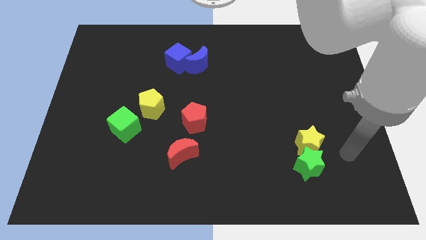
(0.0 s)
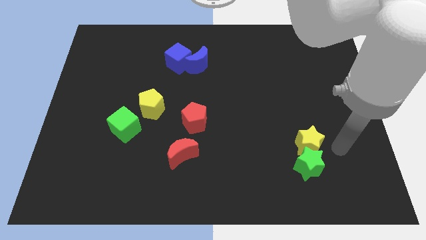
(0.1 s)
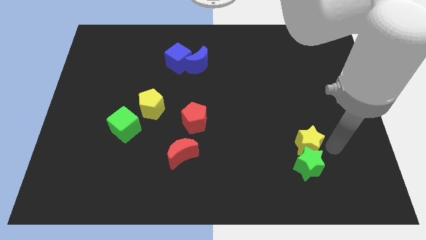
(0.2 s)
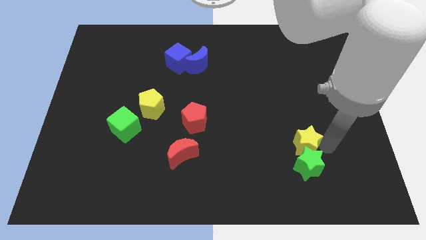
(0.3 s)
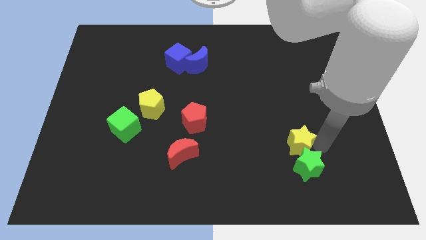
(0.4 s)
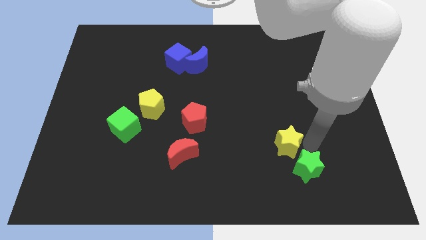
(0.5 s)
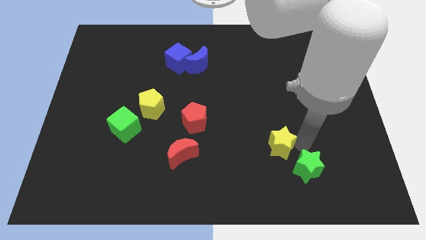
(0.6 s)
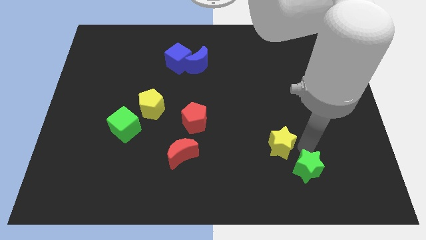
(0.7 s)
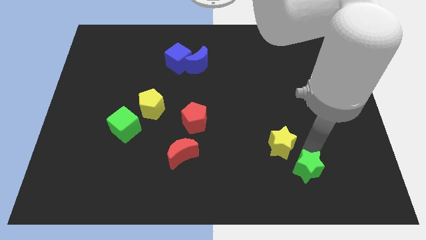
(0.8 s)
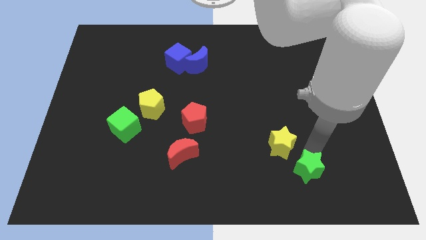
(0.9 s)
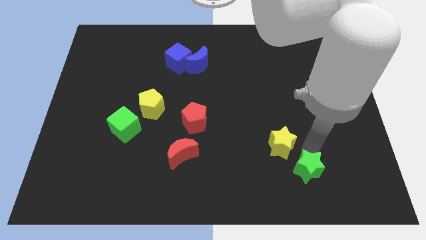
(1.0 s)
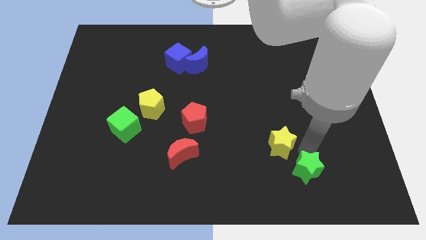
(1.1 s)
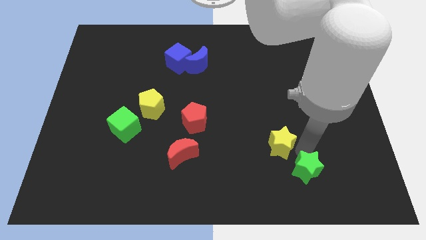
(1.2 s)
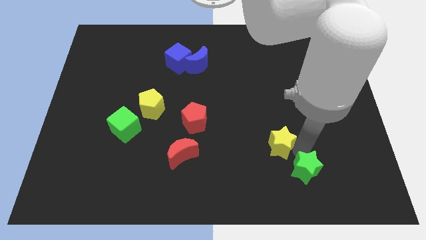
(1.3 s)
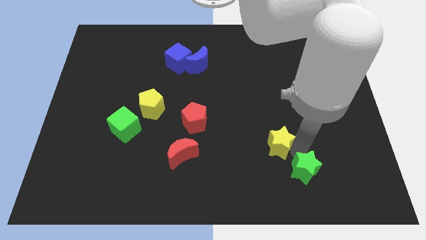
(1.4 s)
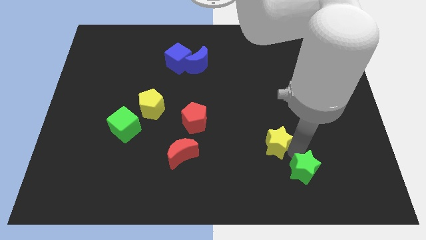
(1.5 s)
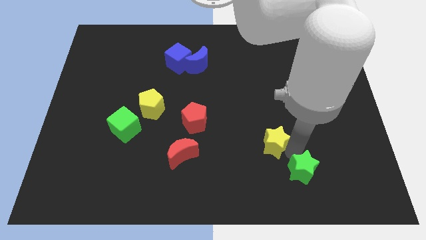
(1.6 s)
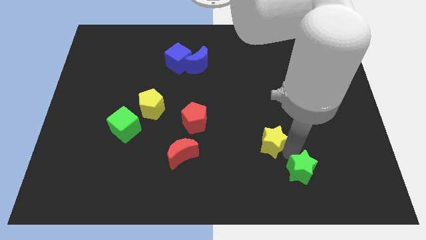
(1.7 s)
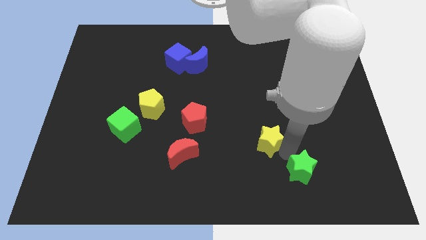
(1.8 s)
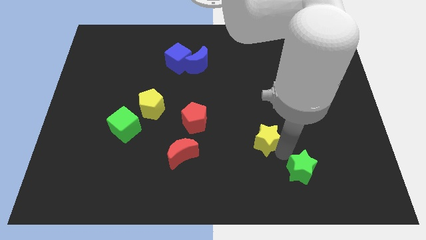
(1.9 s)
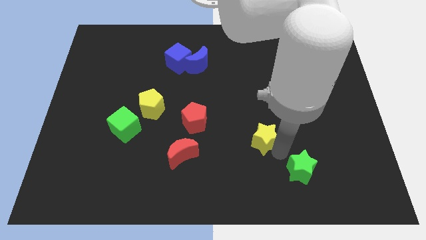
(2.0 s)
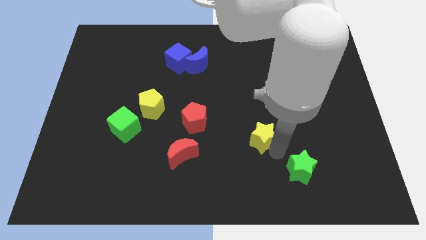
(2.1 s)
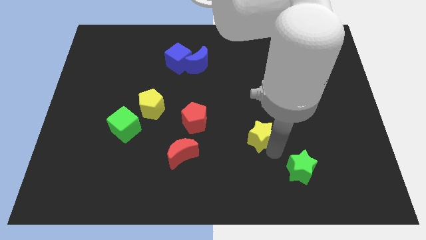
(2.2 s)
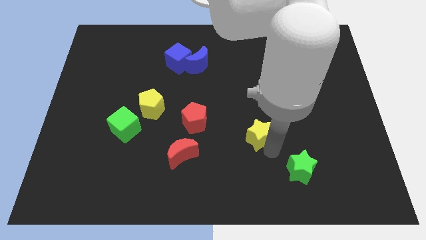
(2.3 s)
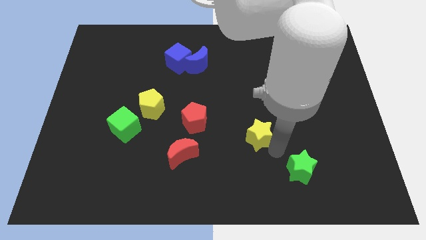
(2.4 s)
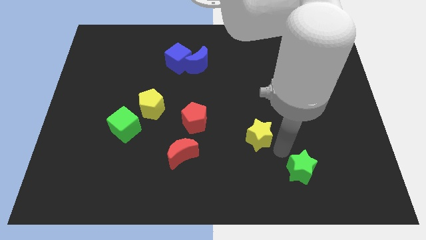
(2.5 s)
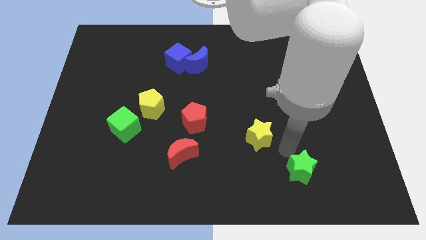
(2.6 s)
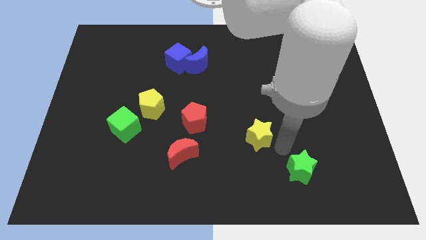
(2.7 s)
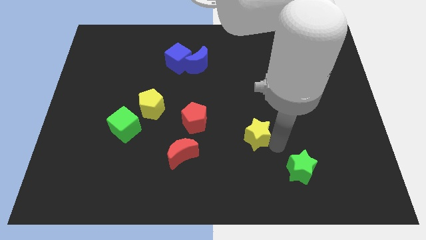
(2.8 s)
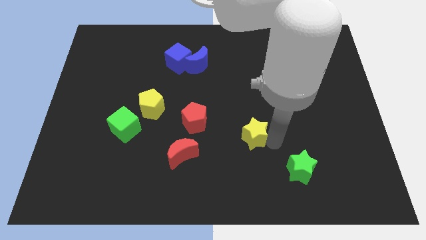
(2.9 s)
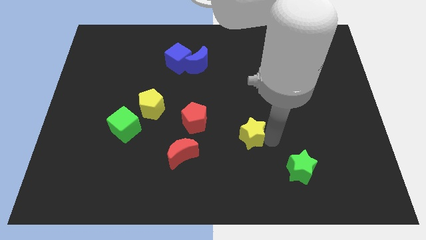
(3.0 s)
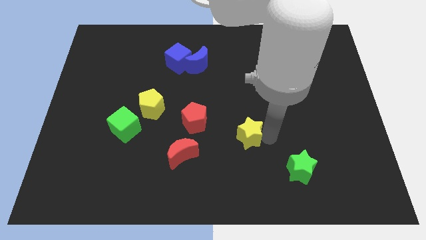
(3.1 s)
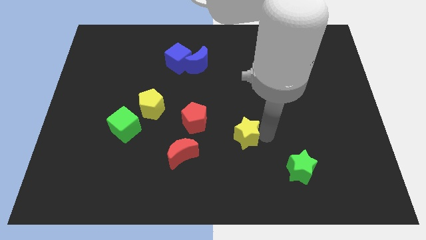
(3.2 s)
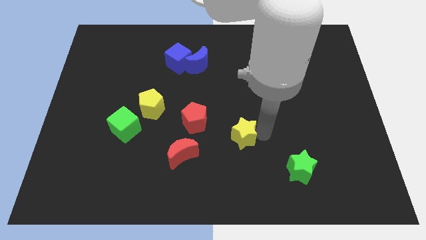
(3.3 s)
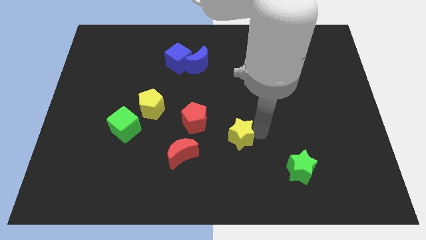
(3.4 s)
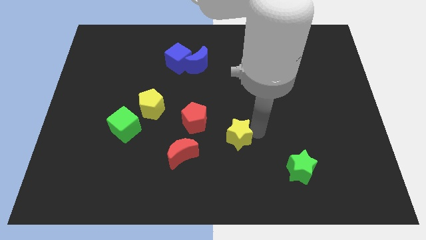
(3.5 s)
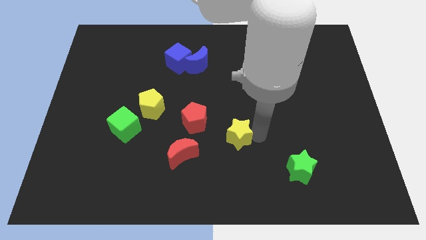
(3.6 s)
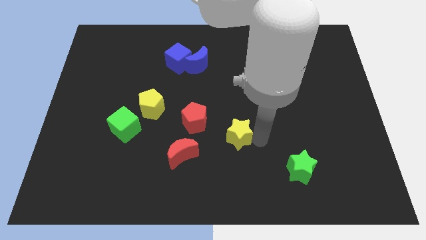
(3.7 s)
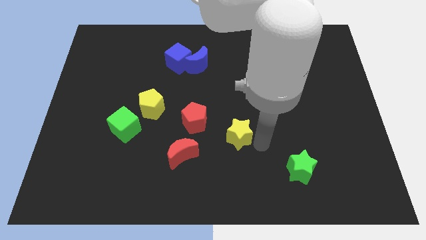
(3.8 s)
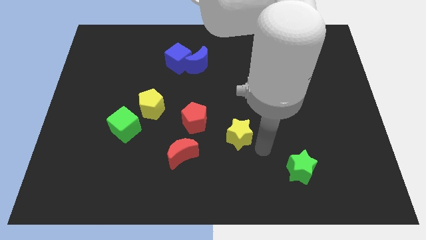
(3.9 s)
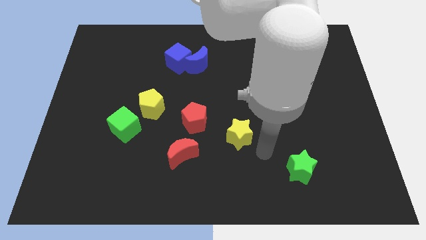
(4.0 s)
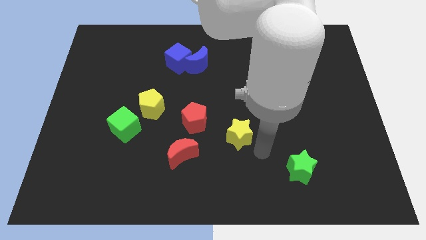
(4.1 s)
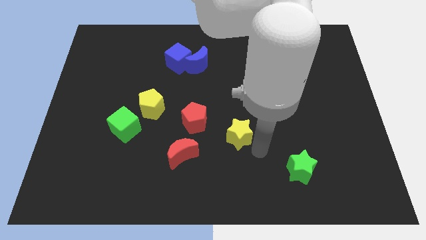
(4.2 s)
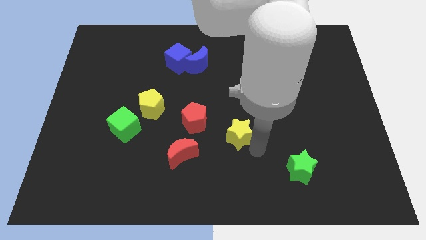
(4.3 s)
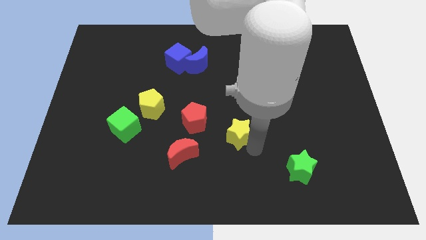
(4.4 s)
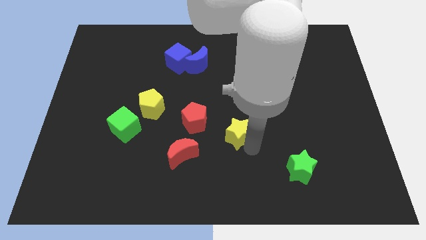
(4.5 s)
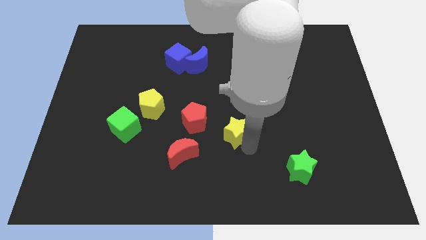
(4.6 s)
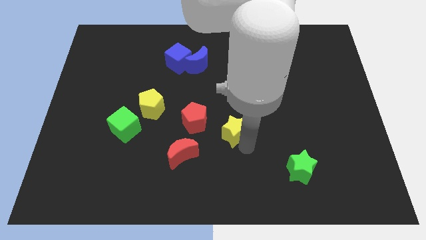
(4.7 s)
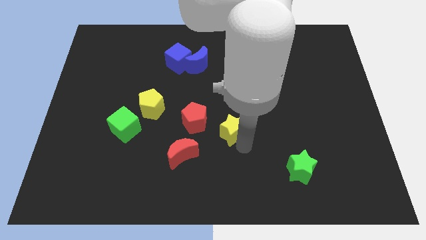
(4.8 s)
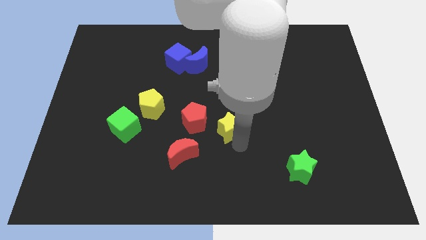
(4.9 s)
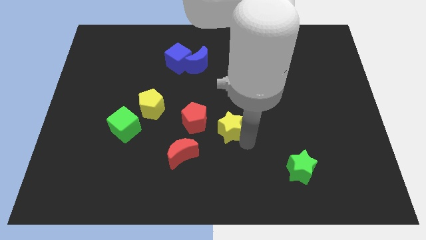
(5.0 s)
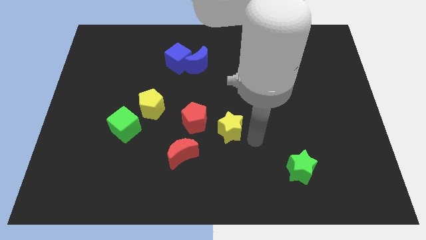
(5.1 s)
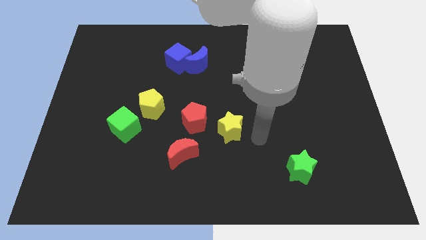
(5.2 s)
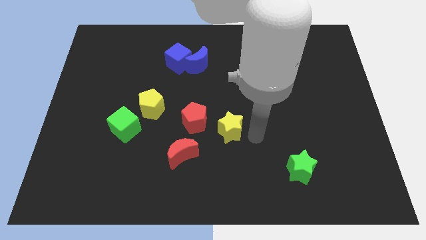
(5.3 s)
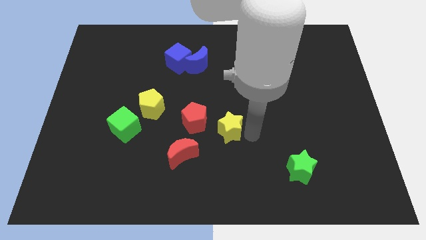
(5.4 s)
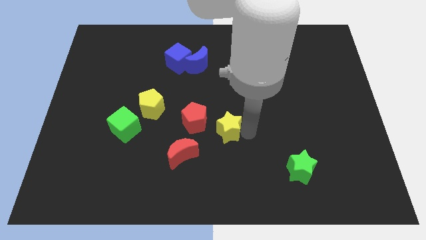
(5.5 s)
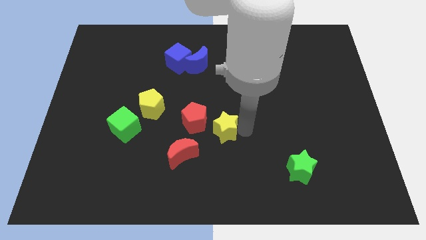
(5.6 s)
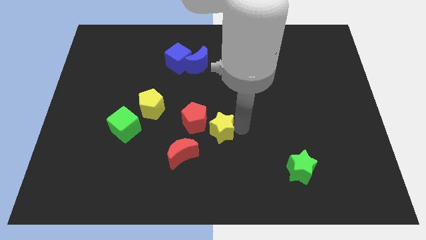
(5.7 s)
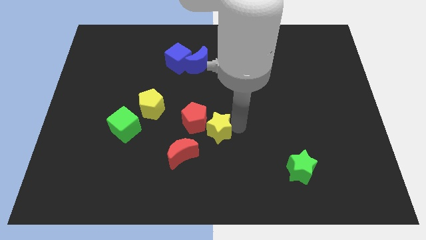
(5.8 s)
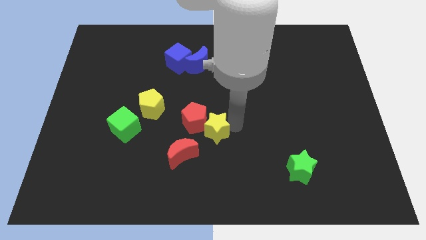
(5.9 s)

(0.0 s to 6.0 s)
slide the yellow star towards the red pentagon

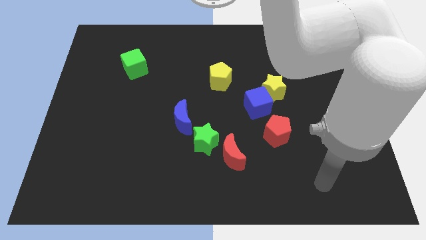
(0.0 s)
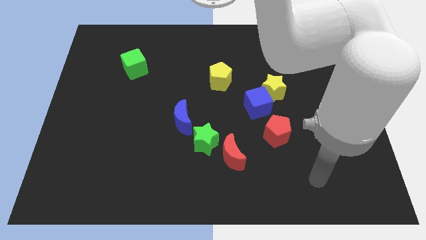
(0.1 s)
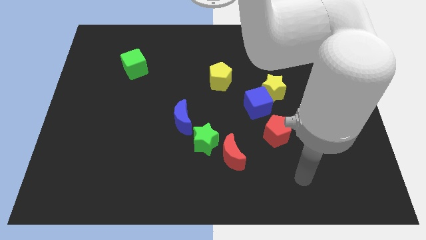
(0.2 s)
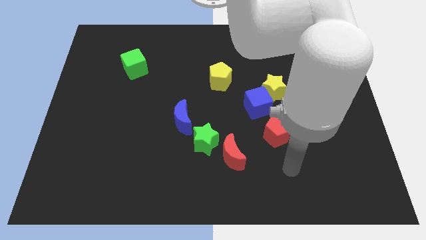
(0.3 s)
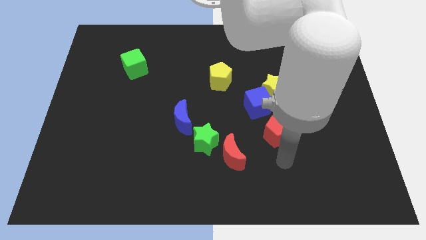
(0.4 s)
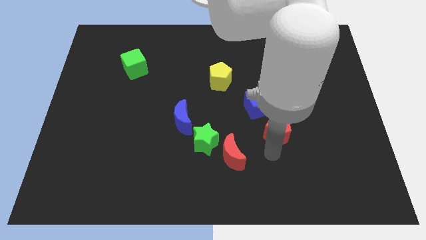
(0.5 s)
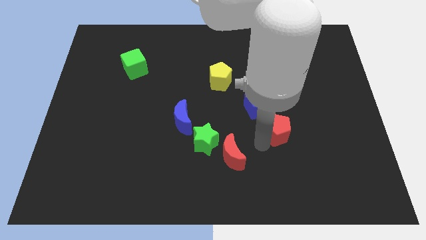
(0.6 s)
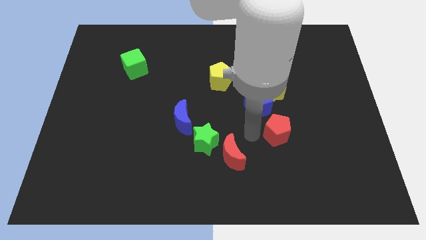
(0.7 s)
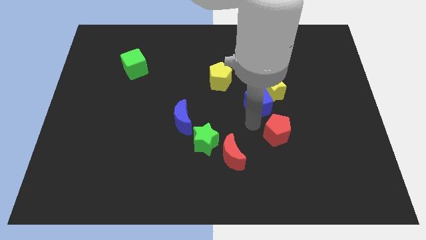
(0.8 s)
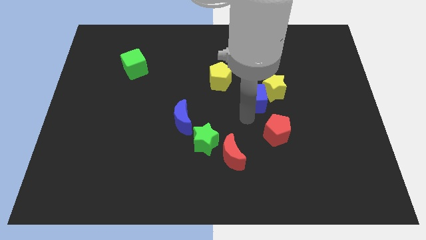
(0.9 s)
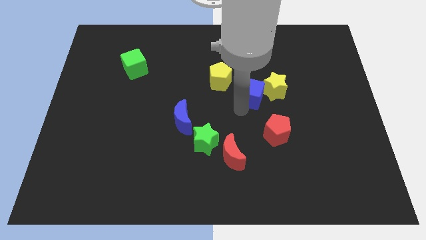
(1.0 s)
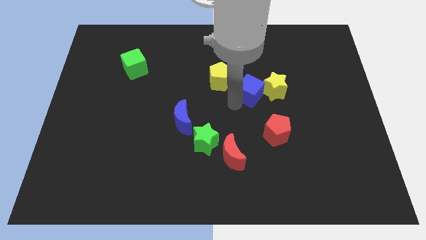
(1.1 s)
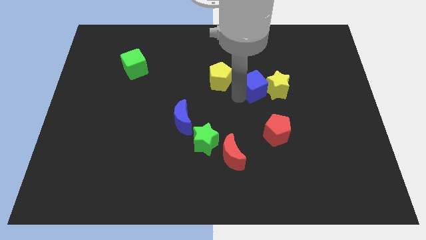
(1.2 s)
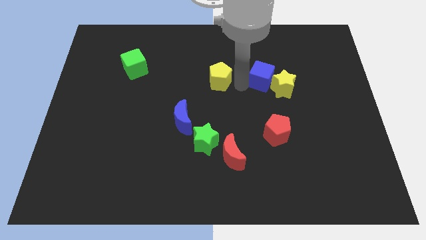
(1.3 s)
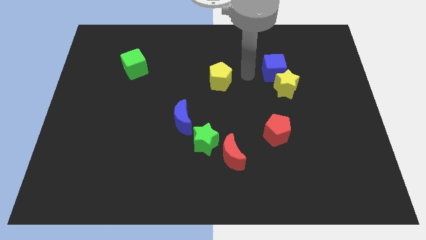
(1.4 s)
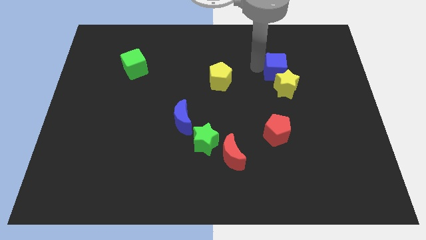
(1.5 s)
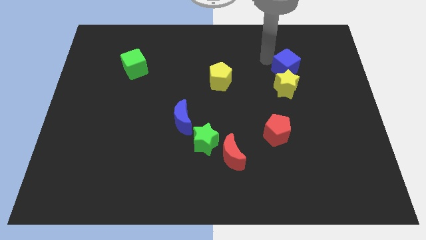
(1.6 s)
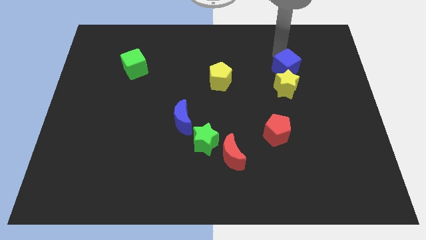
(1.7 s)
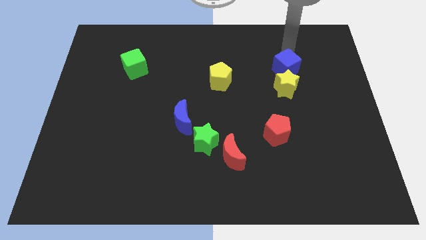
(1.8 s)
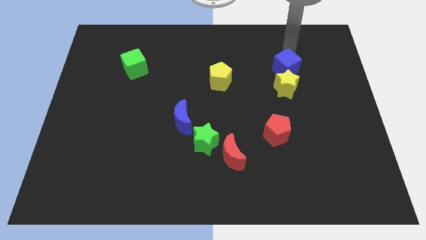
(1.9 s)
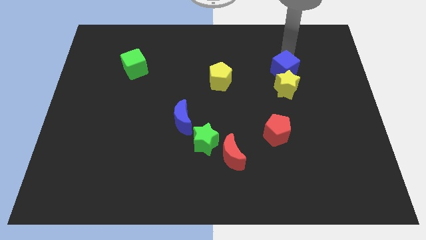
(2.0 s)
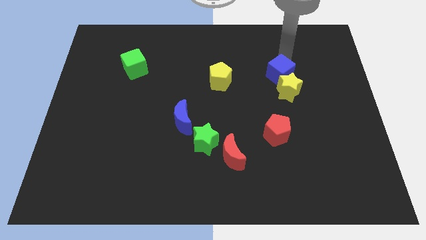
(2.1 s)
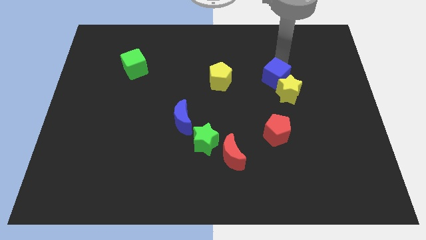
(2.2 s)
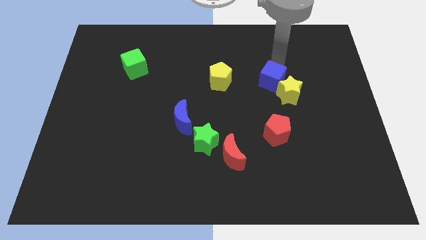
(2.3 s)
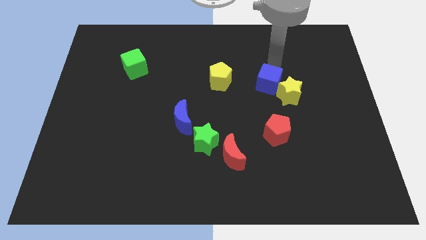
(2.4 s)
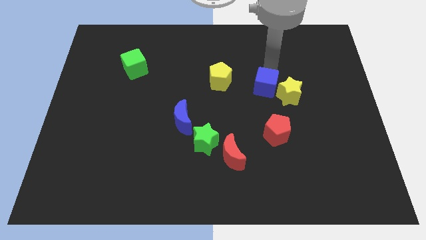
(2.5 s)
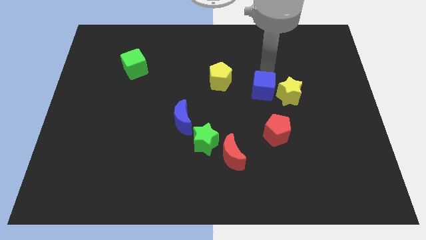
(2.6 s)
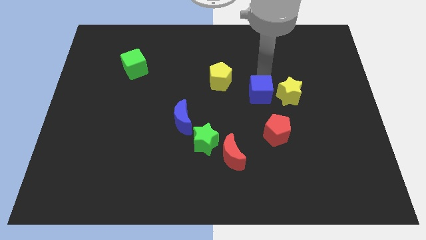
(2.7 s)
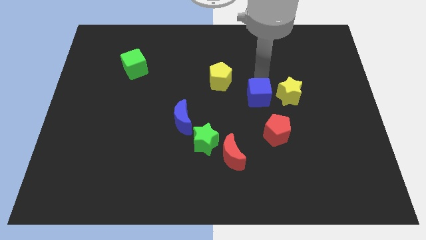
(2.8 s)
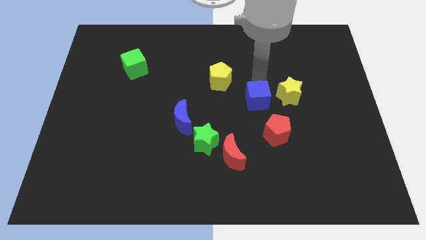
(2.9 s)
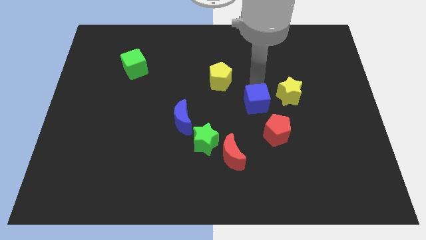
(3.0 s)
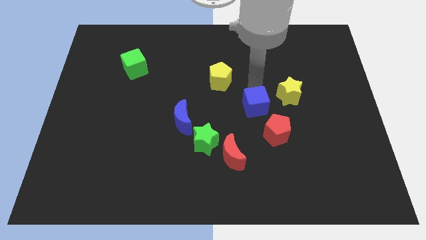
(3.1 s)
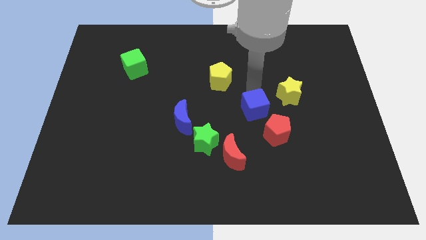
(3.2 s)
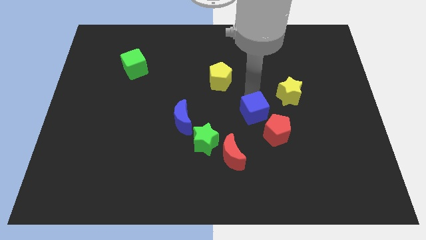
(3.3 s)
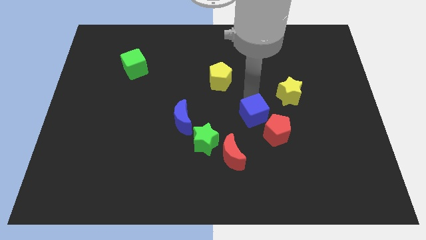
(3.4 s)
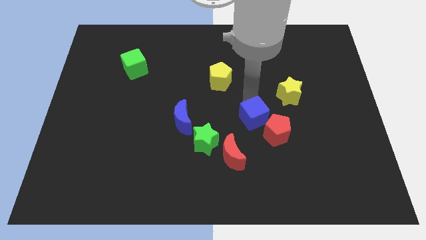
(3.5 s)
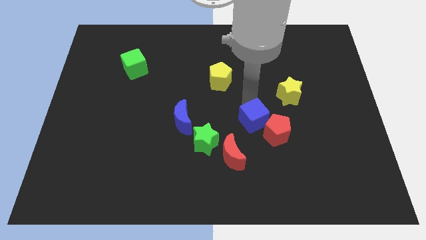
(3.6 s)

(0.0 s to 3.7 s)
slide the blue cube next to the red pentagon
